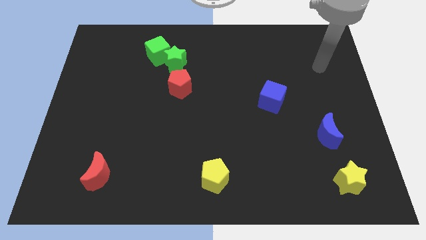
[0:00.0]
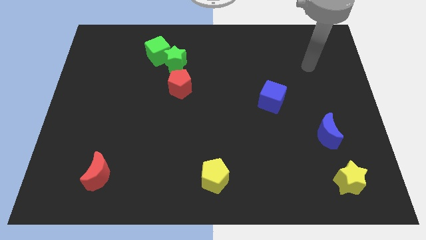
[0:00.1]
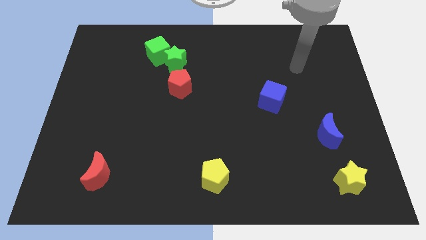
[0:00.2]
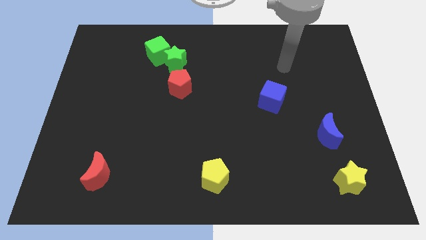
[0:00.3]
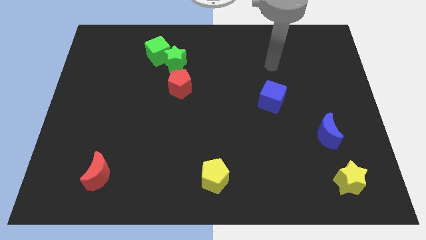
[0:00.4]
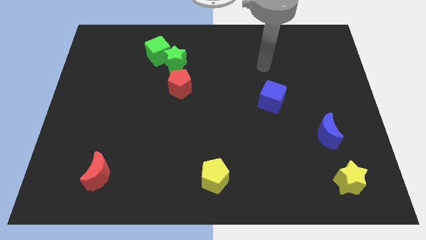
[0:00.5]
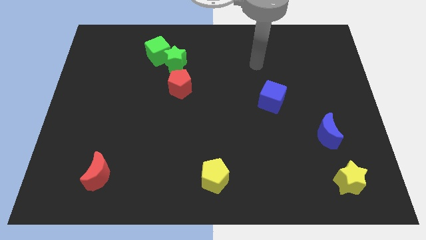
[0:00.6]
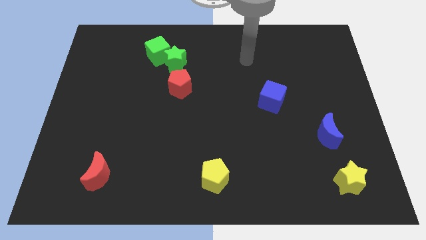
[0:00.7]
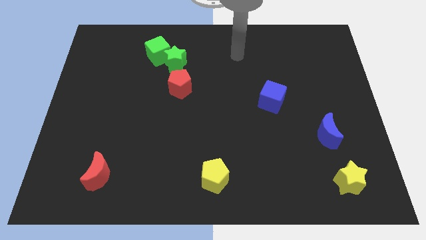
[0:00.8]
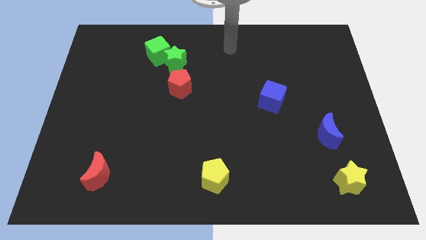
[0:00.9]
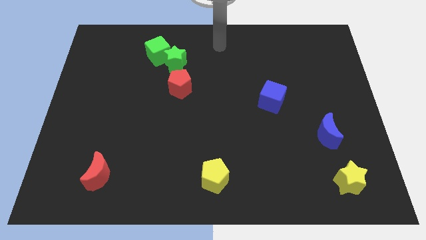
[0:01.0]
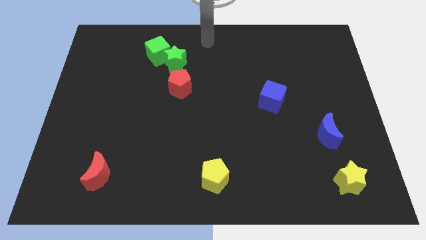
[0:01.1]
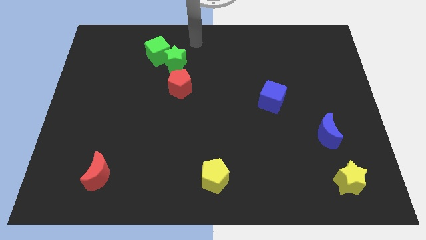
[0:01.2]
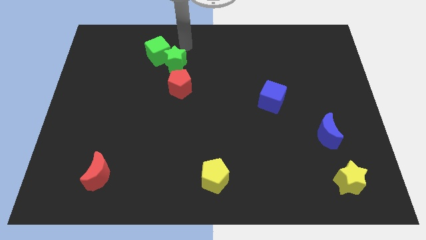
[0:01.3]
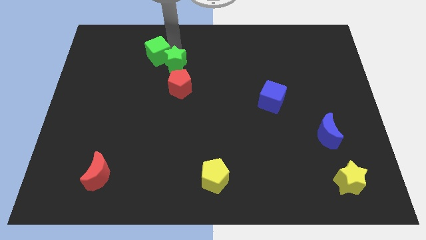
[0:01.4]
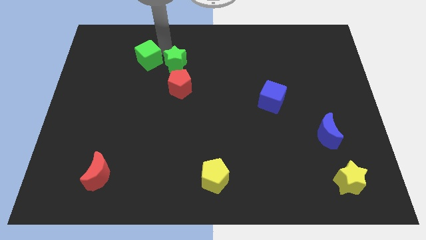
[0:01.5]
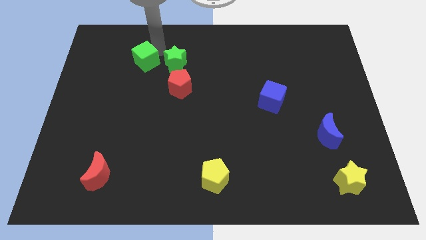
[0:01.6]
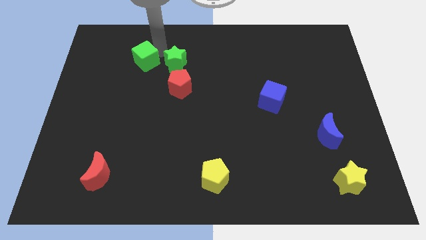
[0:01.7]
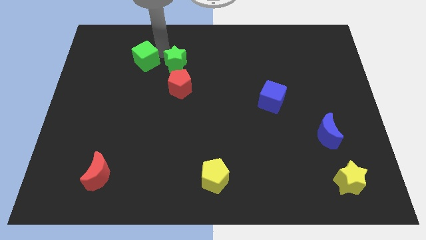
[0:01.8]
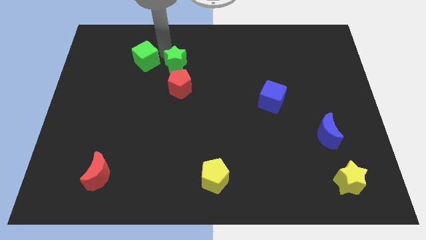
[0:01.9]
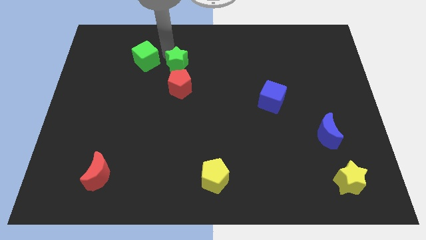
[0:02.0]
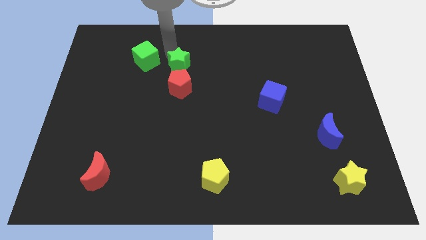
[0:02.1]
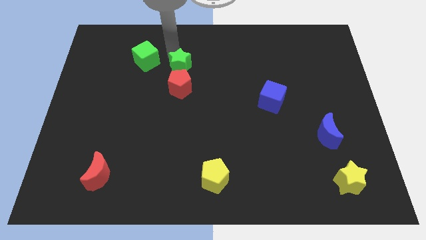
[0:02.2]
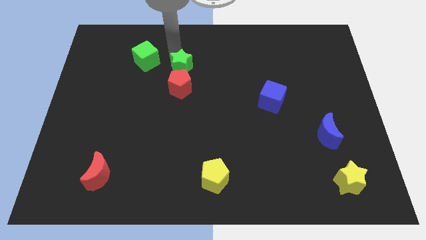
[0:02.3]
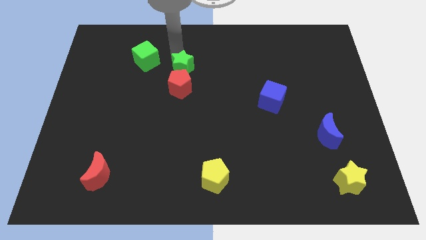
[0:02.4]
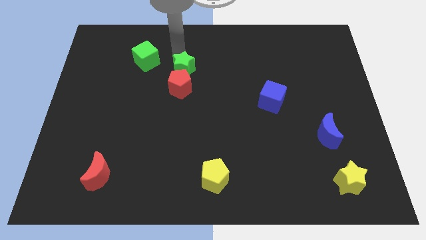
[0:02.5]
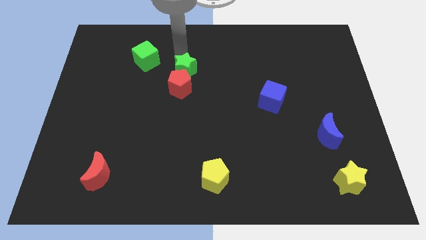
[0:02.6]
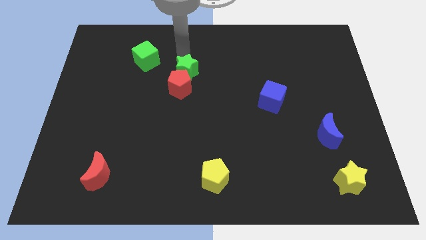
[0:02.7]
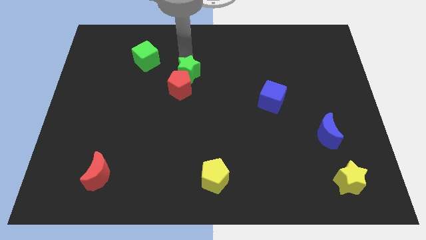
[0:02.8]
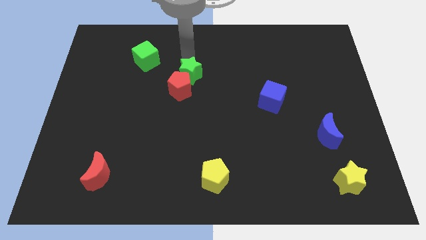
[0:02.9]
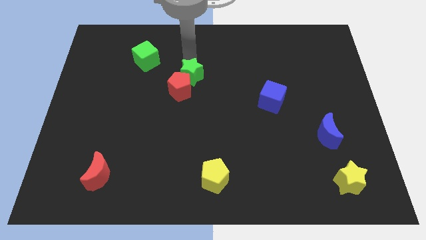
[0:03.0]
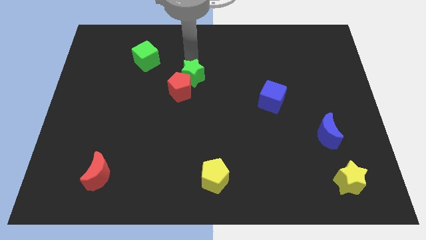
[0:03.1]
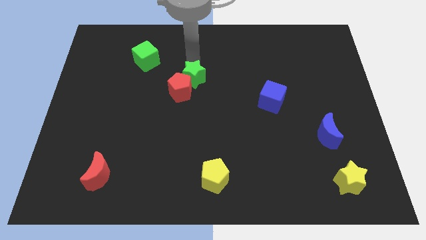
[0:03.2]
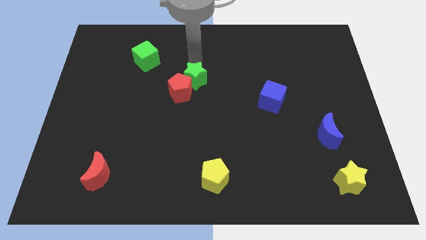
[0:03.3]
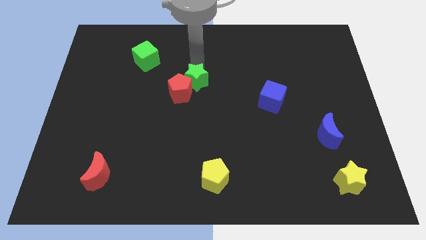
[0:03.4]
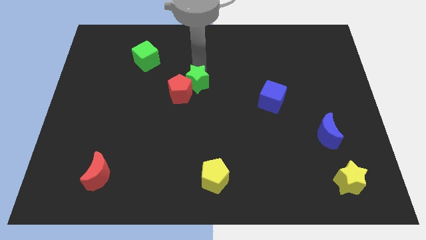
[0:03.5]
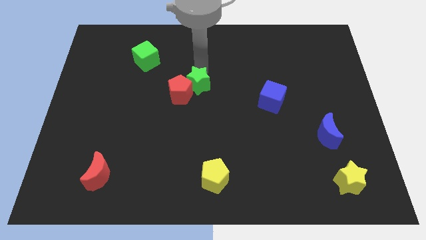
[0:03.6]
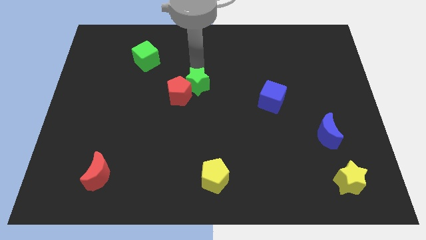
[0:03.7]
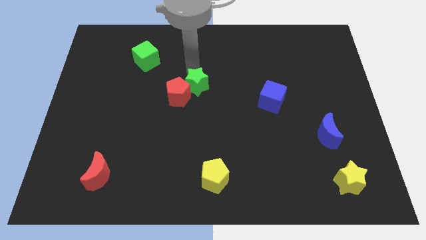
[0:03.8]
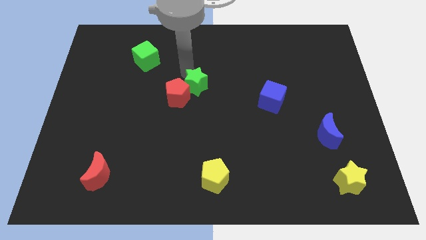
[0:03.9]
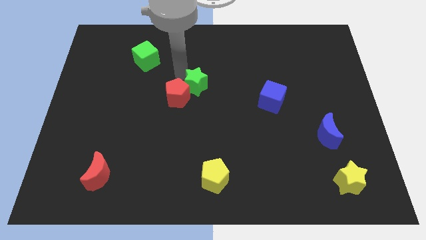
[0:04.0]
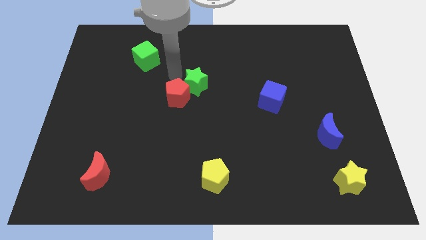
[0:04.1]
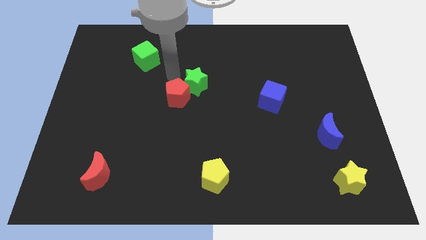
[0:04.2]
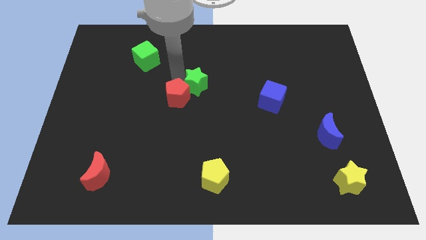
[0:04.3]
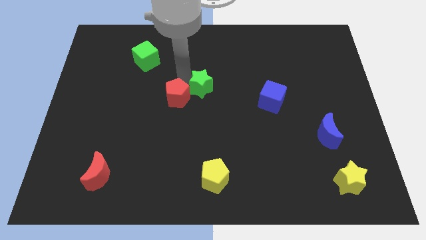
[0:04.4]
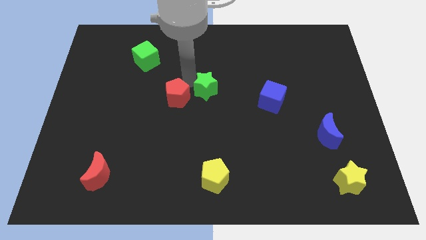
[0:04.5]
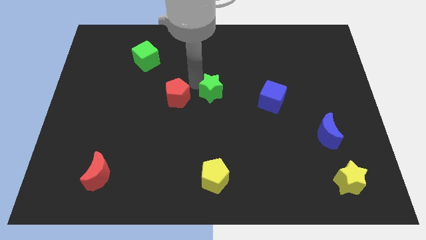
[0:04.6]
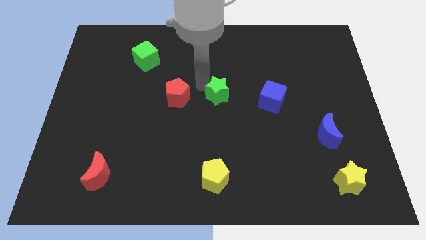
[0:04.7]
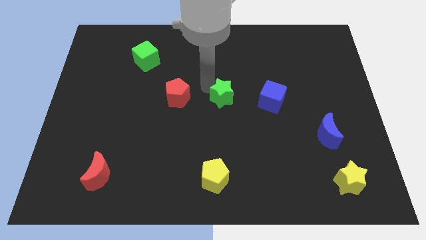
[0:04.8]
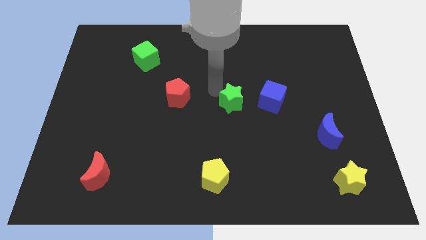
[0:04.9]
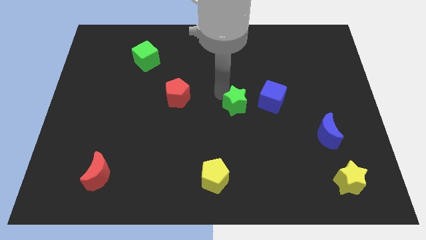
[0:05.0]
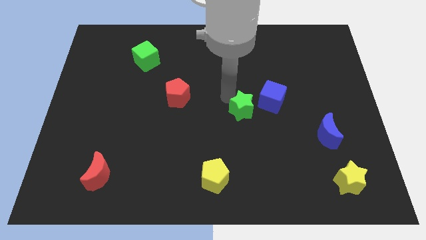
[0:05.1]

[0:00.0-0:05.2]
move the green star diagonally down and to the left of the blue cube

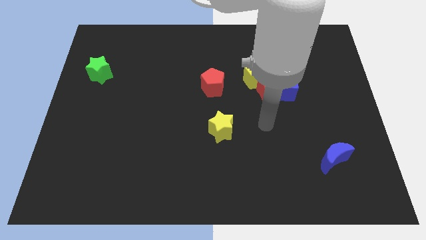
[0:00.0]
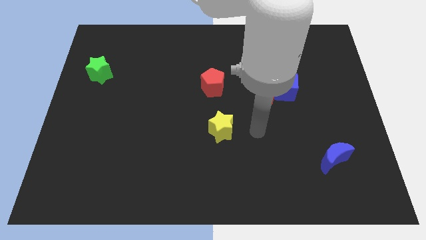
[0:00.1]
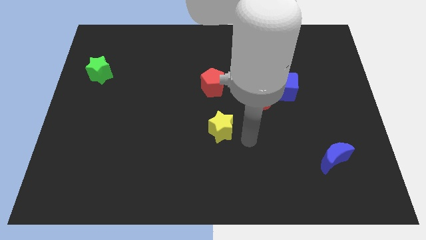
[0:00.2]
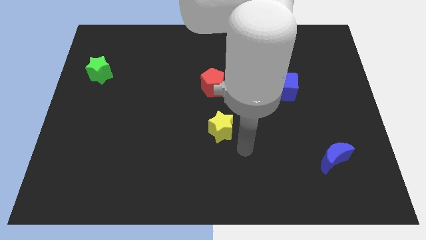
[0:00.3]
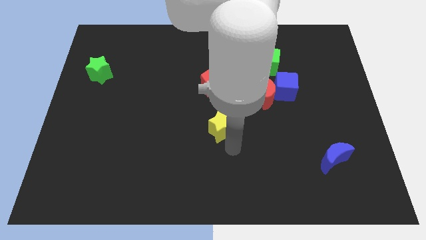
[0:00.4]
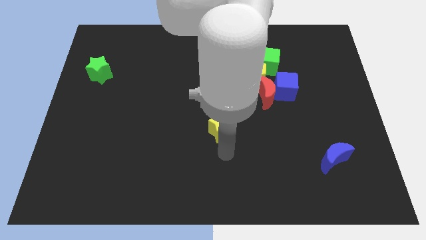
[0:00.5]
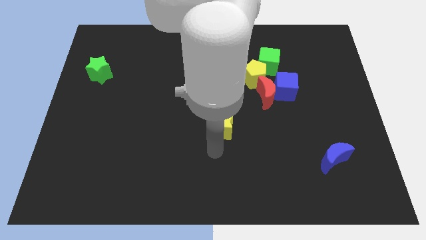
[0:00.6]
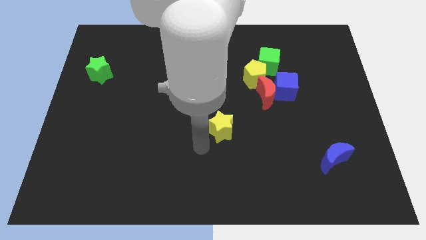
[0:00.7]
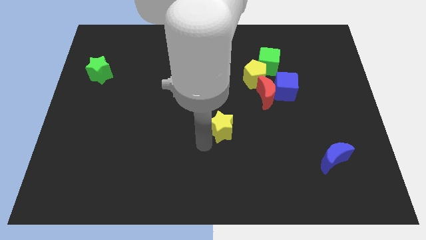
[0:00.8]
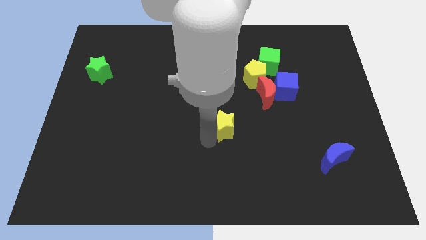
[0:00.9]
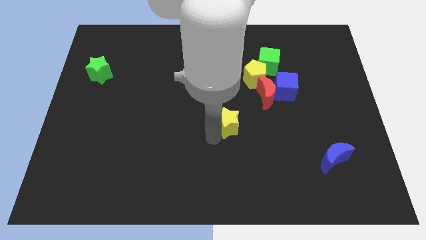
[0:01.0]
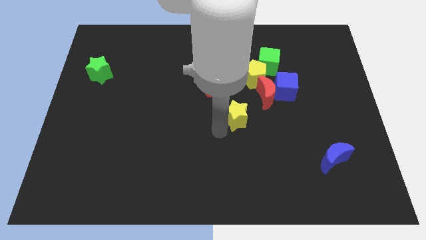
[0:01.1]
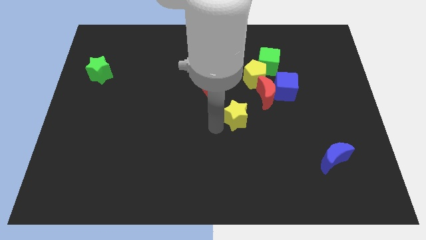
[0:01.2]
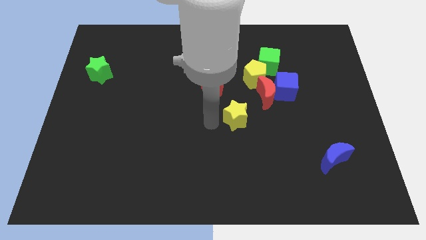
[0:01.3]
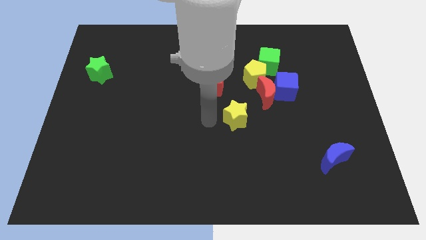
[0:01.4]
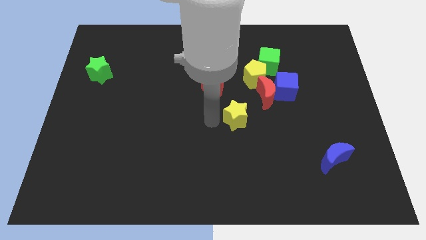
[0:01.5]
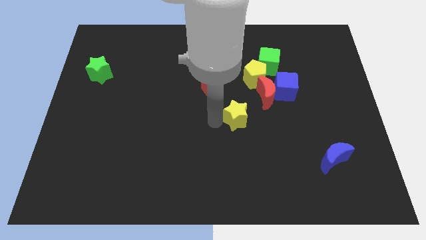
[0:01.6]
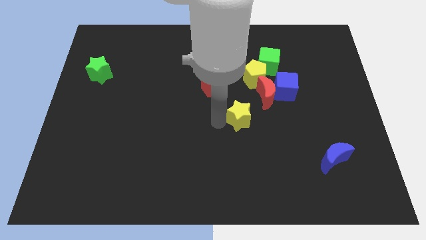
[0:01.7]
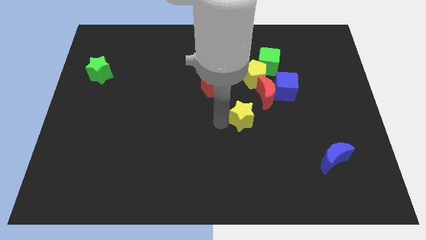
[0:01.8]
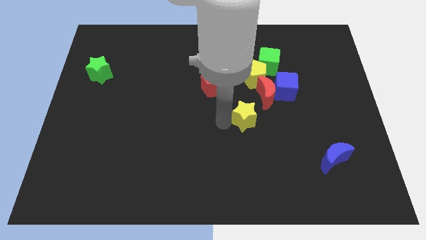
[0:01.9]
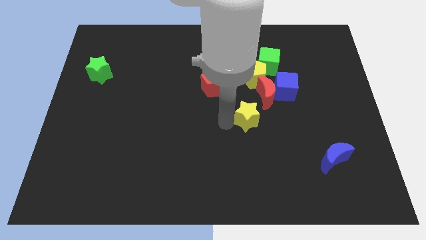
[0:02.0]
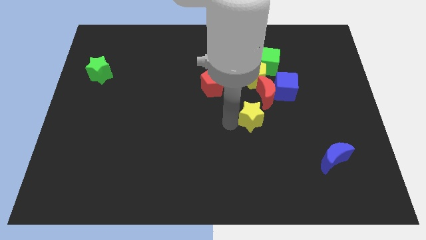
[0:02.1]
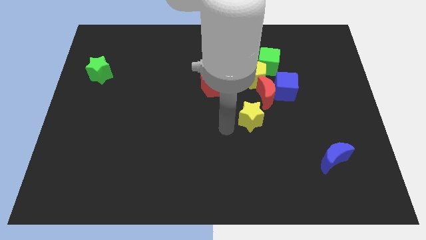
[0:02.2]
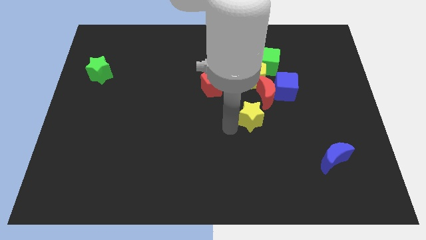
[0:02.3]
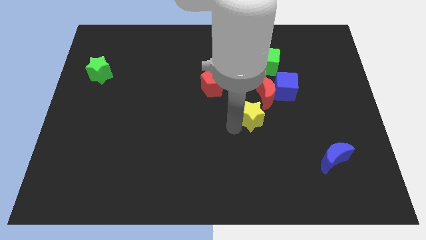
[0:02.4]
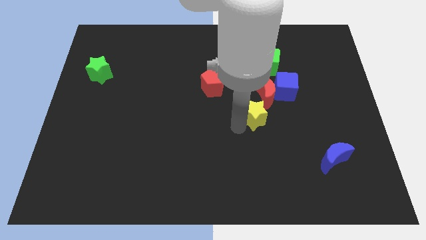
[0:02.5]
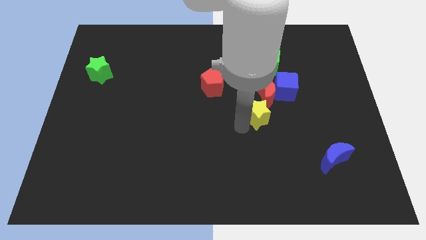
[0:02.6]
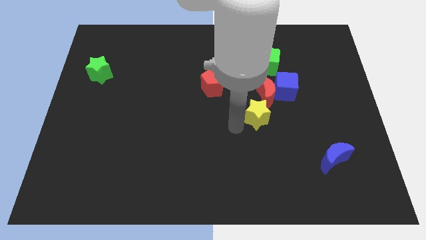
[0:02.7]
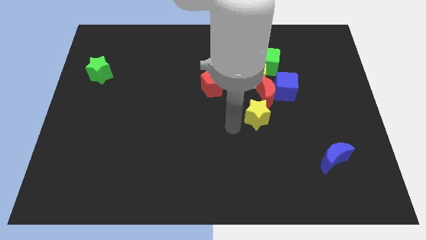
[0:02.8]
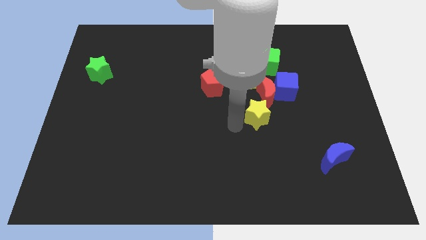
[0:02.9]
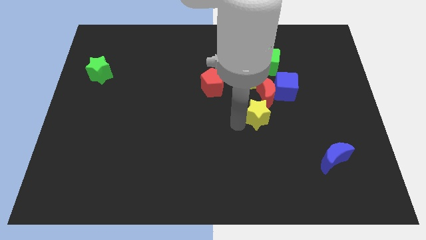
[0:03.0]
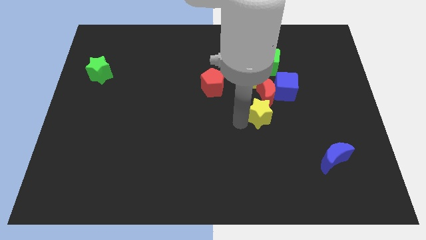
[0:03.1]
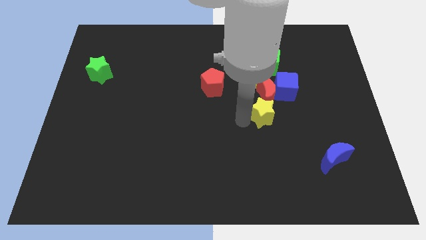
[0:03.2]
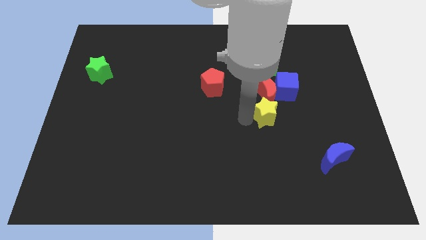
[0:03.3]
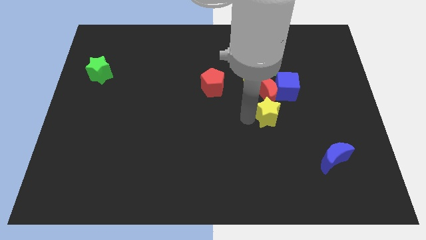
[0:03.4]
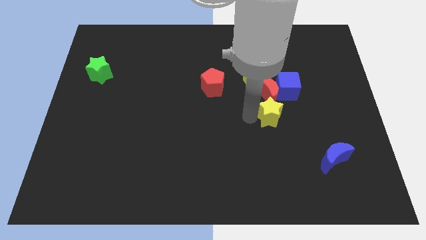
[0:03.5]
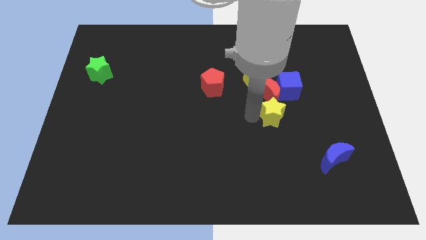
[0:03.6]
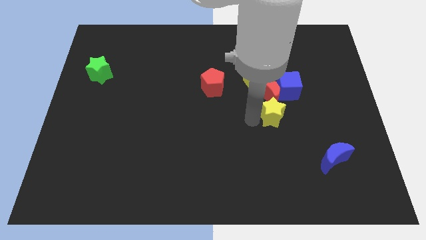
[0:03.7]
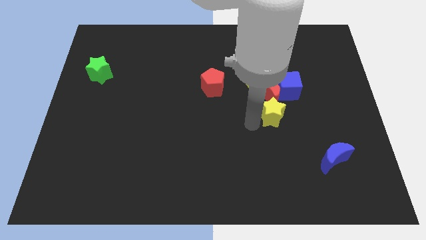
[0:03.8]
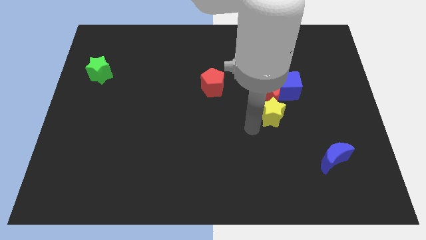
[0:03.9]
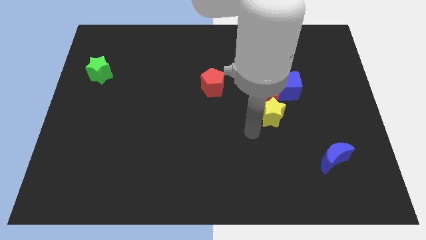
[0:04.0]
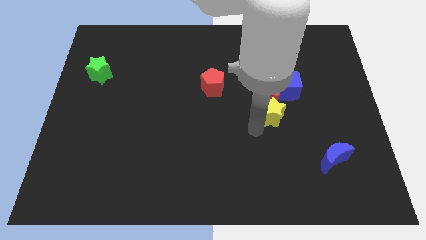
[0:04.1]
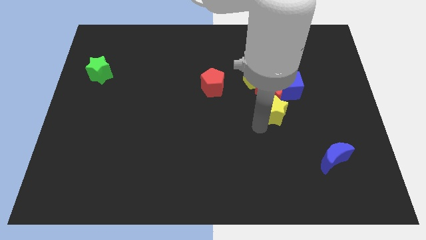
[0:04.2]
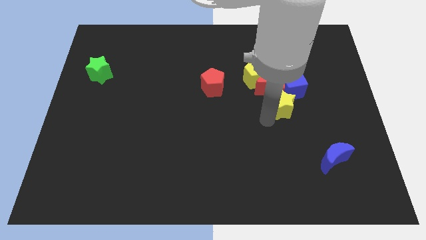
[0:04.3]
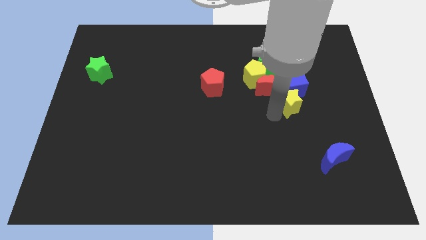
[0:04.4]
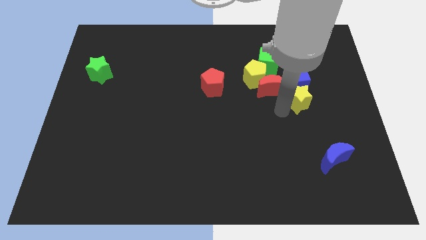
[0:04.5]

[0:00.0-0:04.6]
push the yellow star right of the red moon
